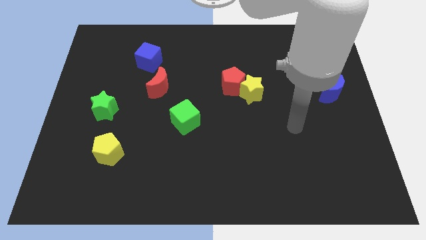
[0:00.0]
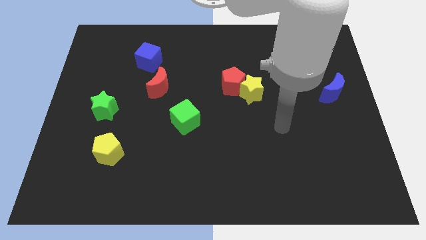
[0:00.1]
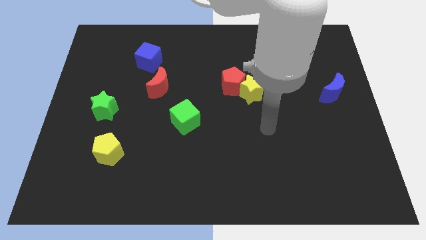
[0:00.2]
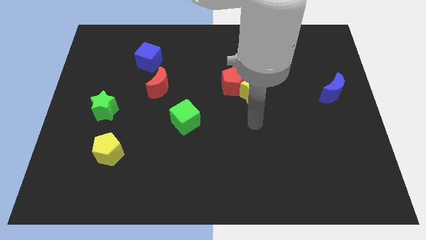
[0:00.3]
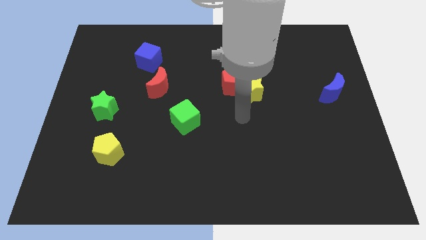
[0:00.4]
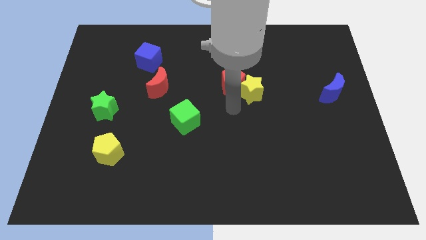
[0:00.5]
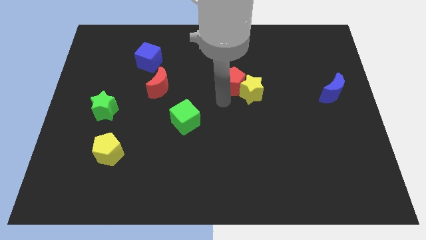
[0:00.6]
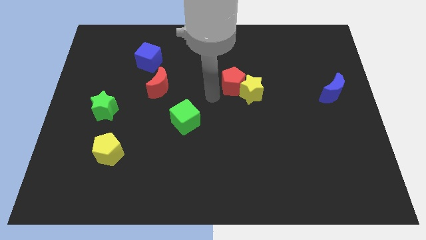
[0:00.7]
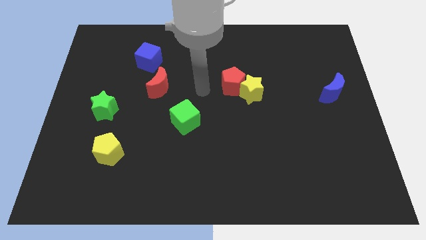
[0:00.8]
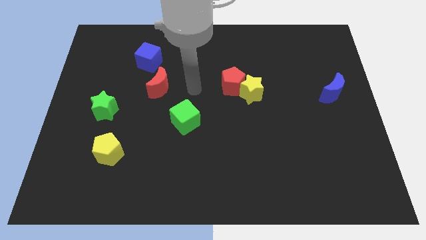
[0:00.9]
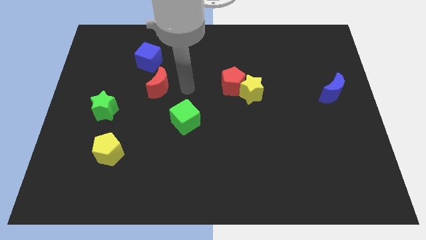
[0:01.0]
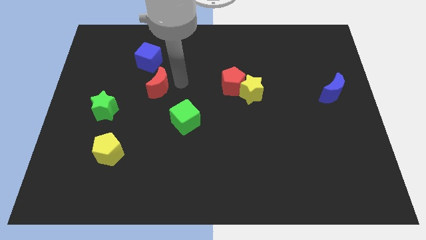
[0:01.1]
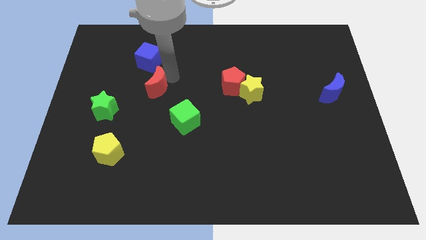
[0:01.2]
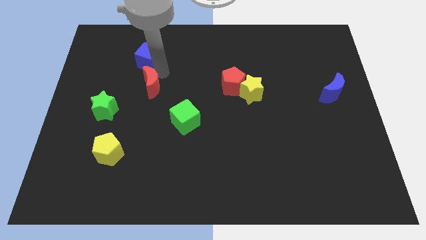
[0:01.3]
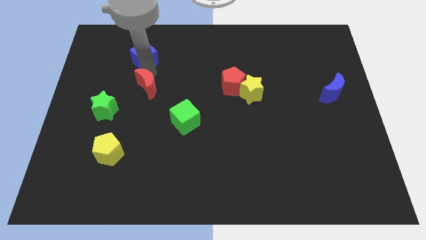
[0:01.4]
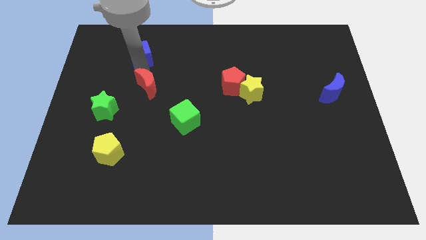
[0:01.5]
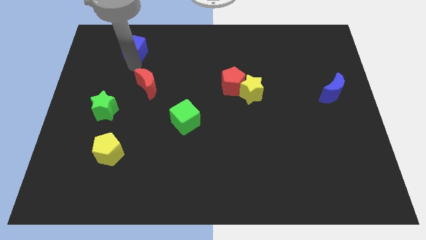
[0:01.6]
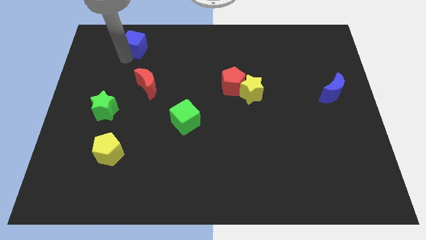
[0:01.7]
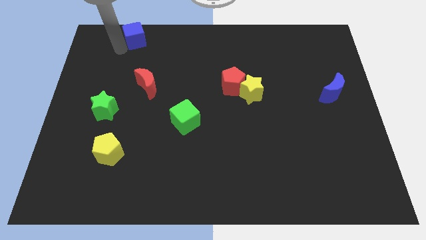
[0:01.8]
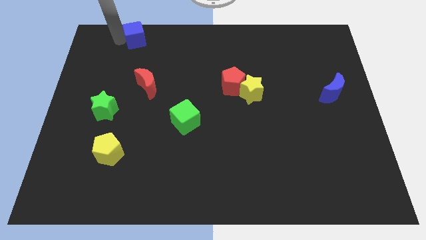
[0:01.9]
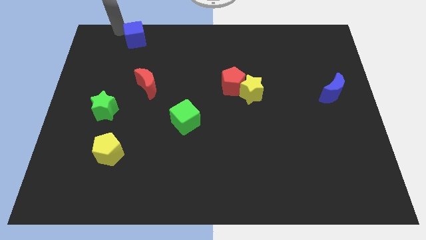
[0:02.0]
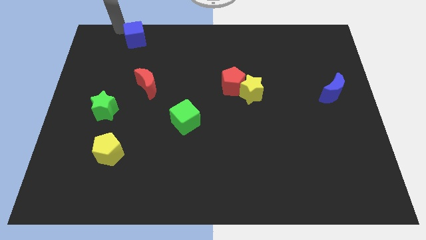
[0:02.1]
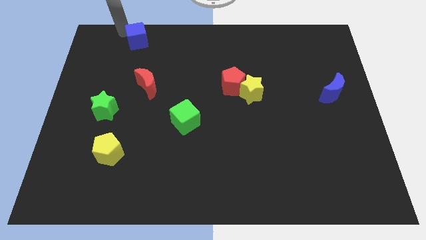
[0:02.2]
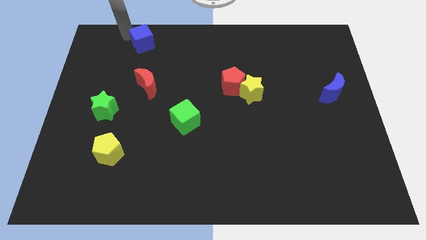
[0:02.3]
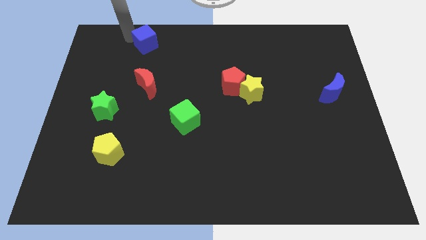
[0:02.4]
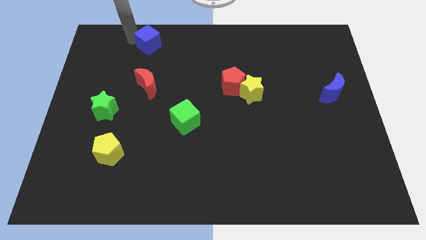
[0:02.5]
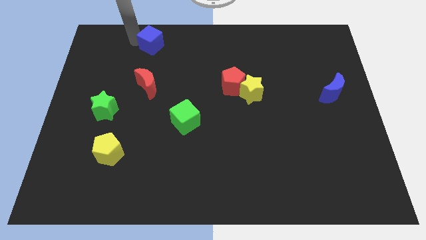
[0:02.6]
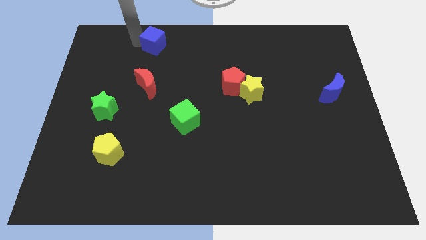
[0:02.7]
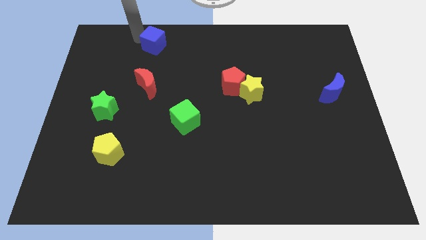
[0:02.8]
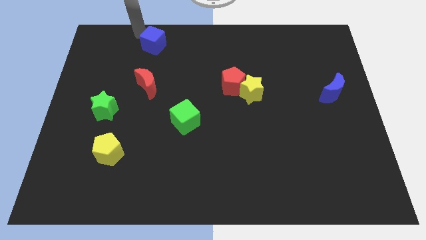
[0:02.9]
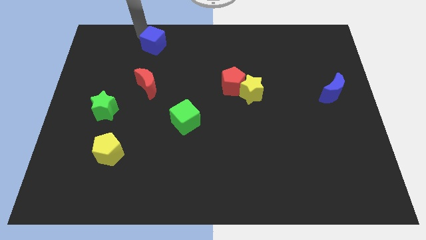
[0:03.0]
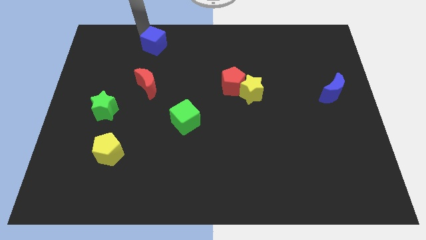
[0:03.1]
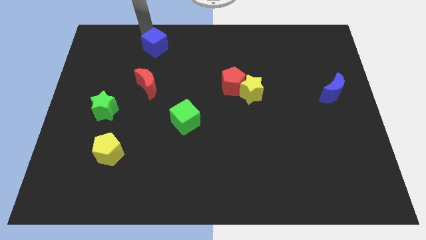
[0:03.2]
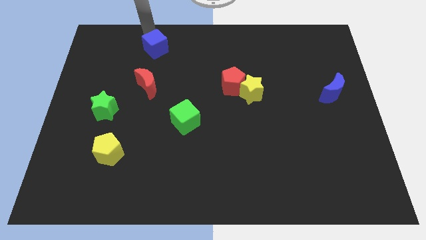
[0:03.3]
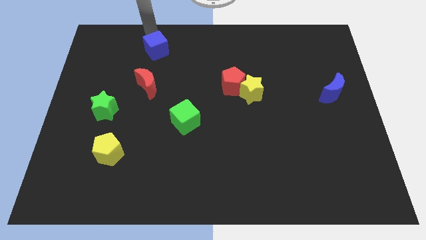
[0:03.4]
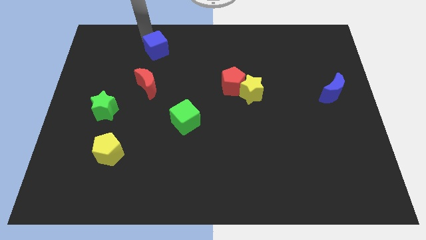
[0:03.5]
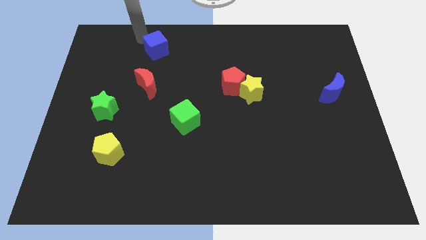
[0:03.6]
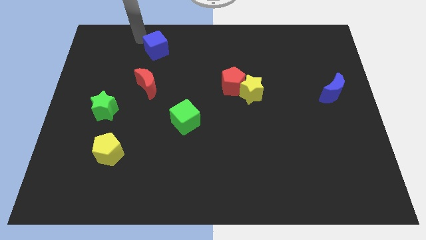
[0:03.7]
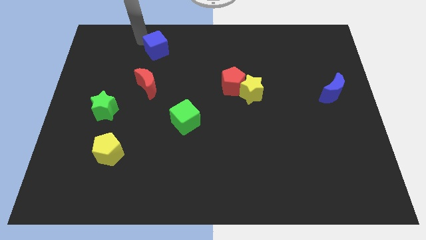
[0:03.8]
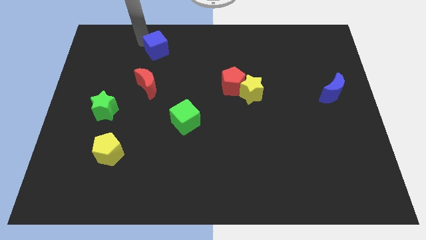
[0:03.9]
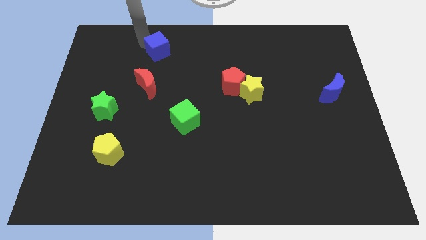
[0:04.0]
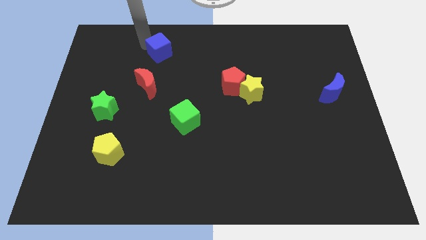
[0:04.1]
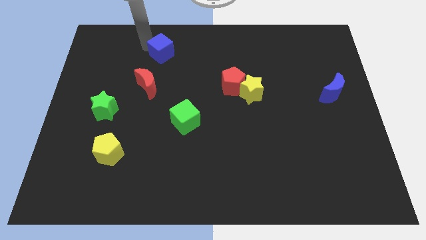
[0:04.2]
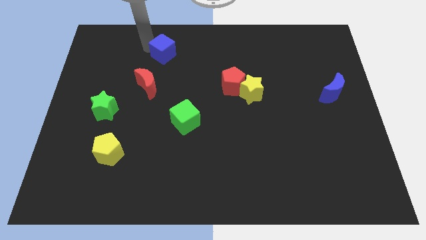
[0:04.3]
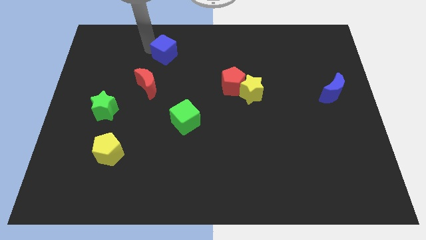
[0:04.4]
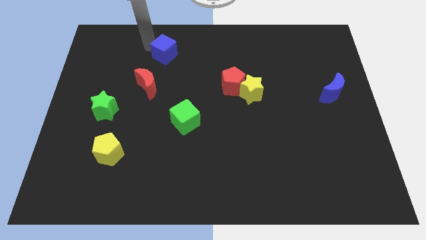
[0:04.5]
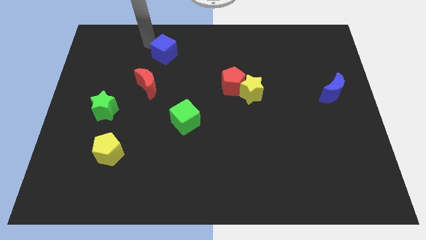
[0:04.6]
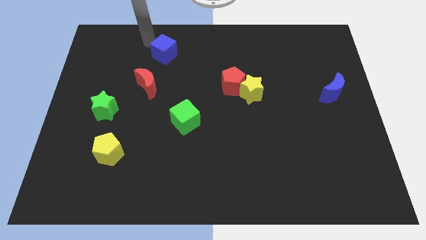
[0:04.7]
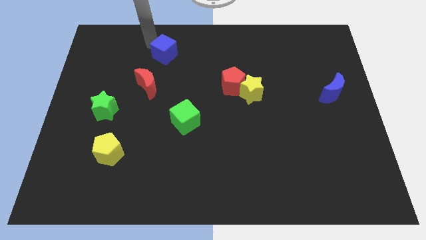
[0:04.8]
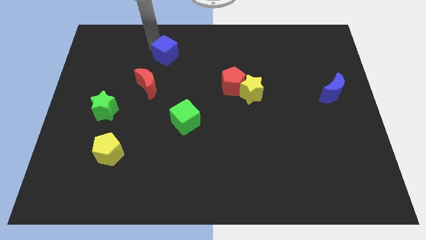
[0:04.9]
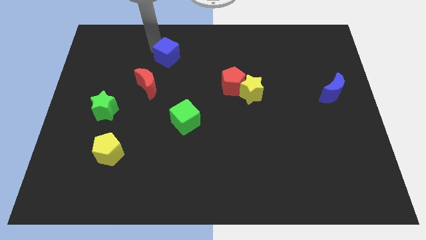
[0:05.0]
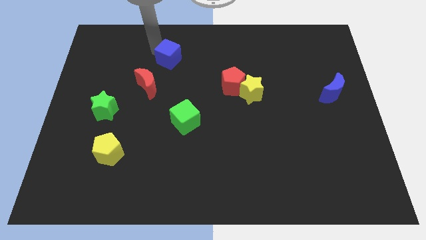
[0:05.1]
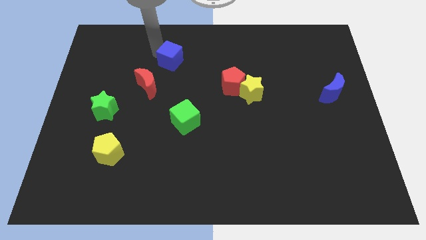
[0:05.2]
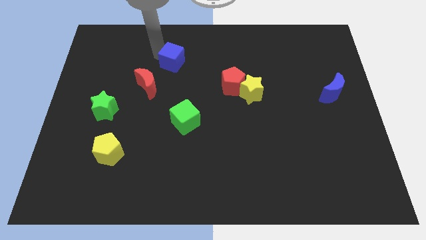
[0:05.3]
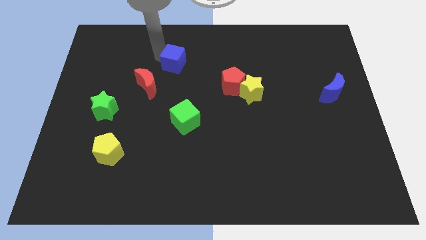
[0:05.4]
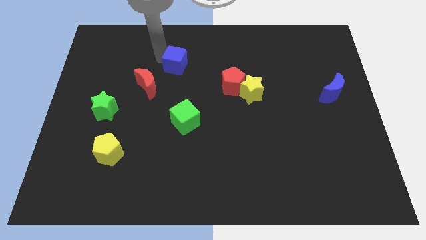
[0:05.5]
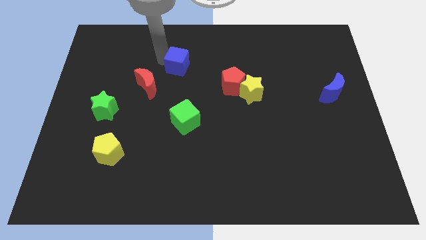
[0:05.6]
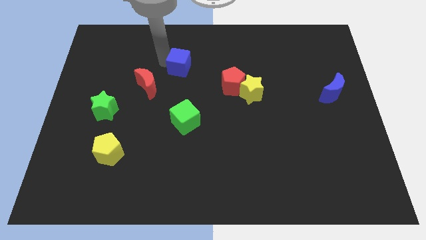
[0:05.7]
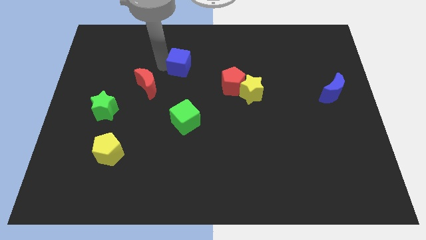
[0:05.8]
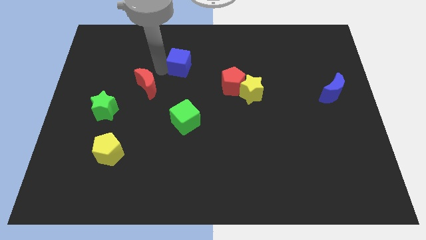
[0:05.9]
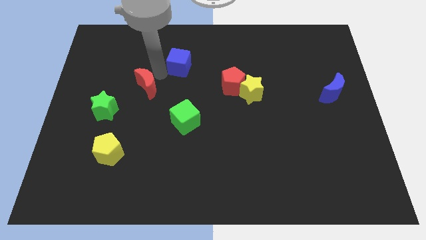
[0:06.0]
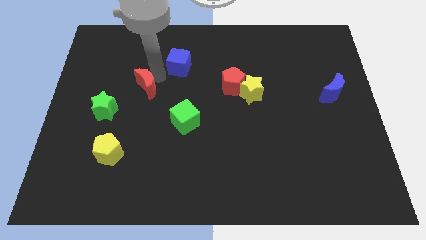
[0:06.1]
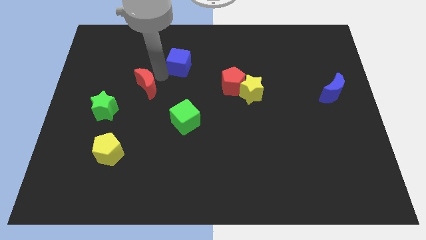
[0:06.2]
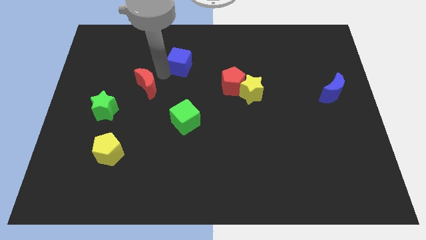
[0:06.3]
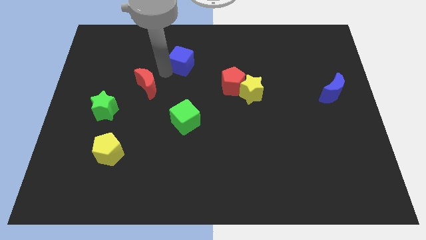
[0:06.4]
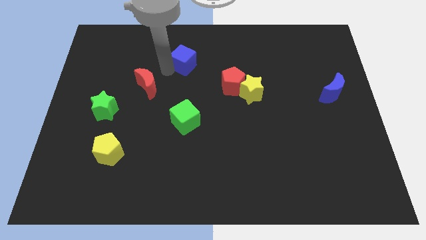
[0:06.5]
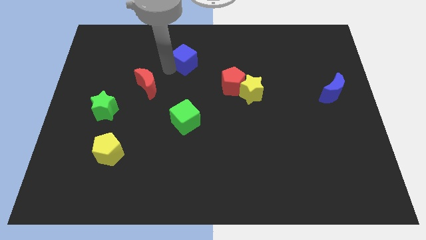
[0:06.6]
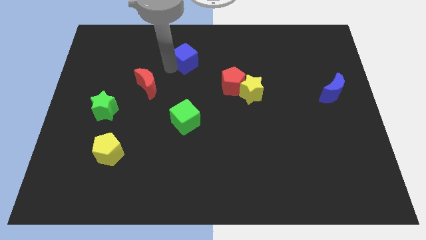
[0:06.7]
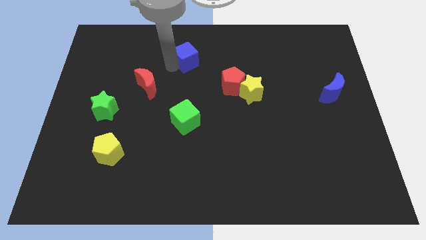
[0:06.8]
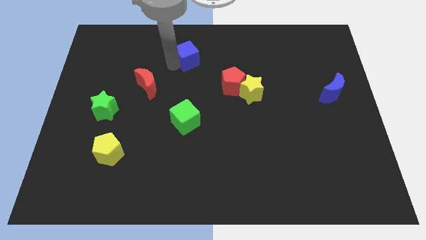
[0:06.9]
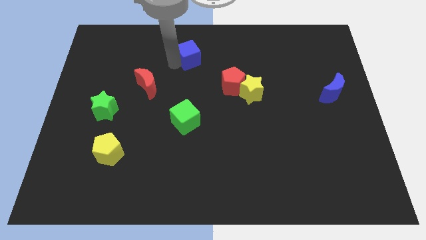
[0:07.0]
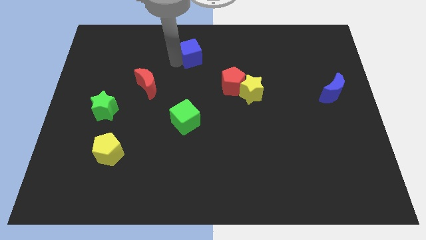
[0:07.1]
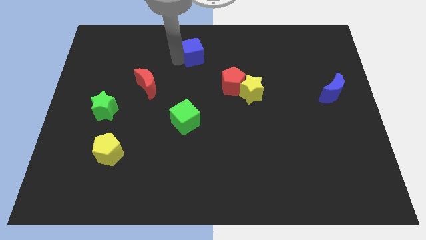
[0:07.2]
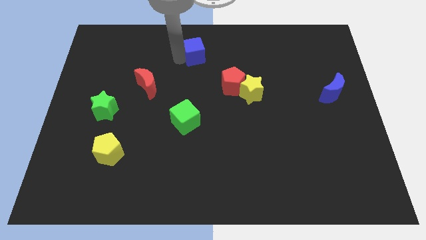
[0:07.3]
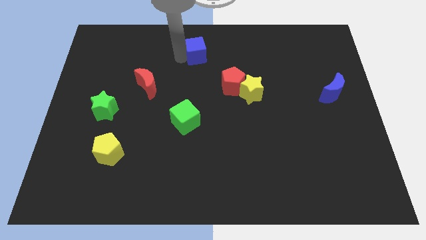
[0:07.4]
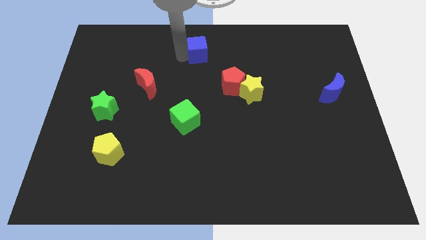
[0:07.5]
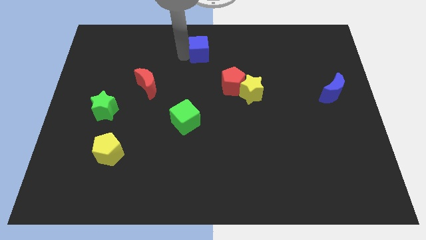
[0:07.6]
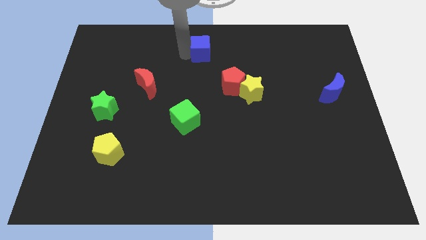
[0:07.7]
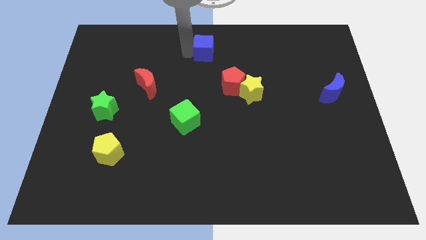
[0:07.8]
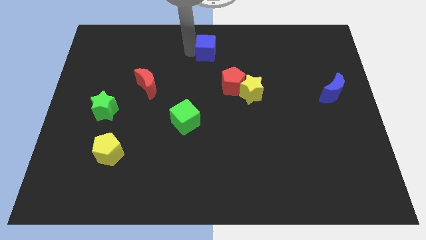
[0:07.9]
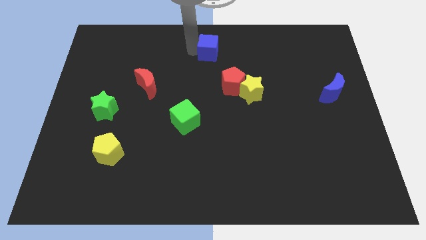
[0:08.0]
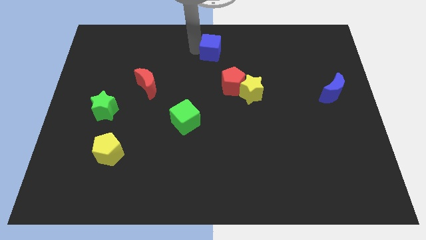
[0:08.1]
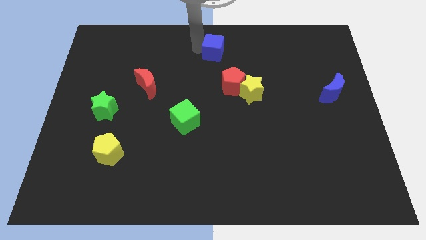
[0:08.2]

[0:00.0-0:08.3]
push the blue cube to the top side of the red pentagon
